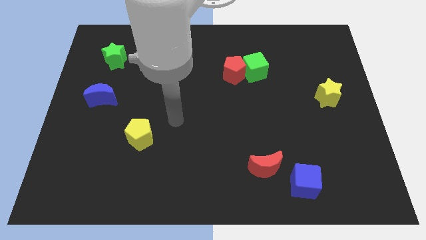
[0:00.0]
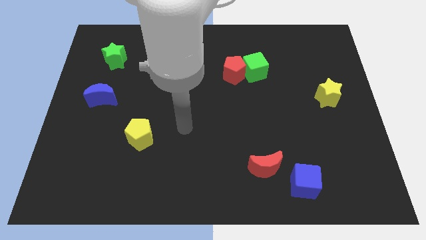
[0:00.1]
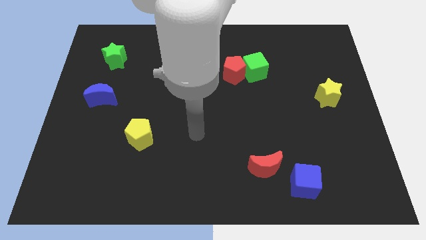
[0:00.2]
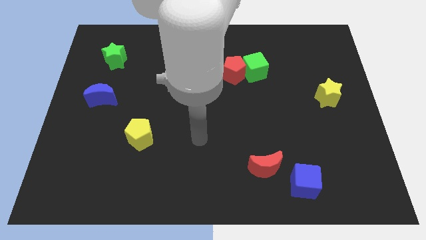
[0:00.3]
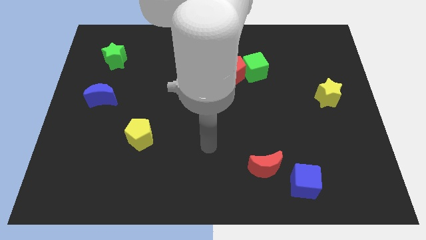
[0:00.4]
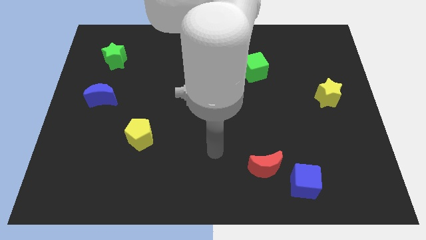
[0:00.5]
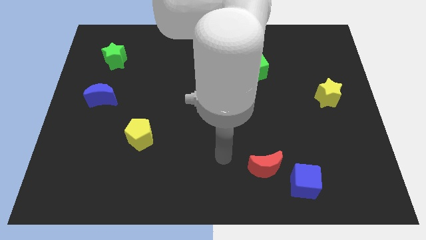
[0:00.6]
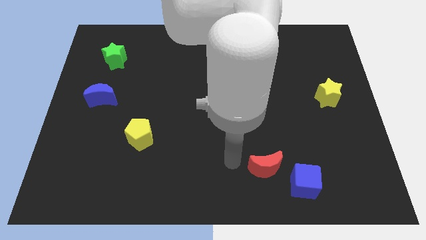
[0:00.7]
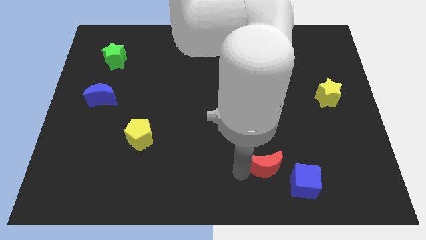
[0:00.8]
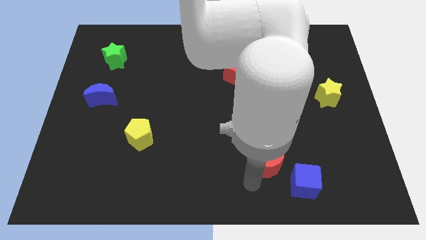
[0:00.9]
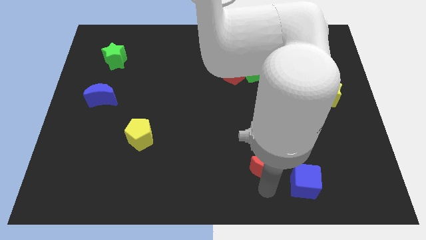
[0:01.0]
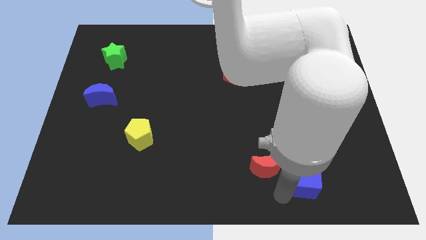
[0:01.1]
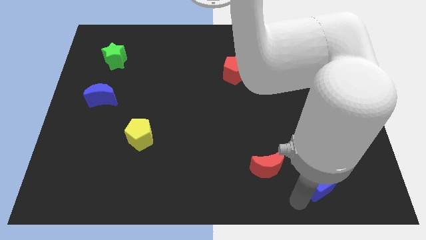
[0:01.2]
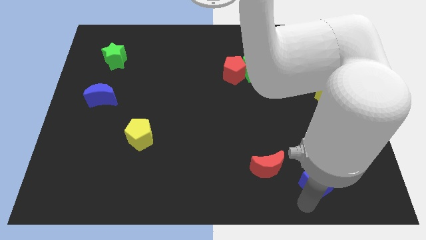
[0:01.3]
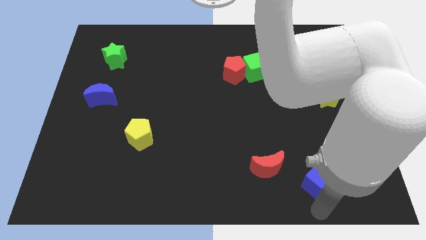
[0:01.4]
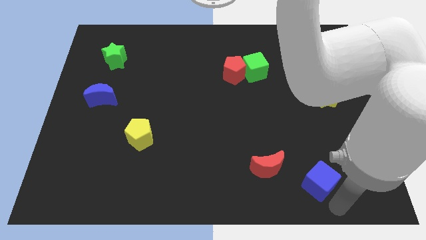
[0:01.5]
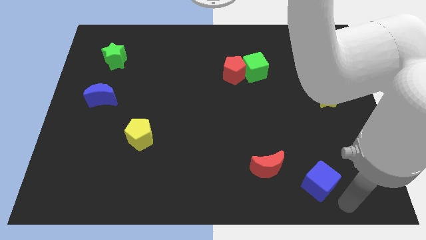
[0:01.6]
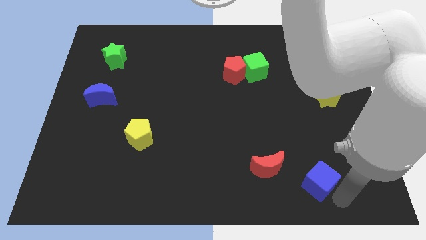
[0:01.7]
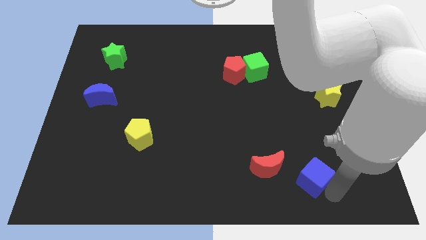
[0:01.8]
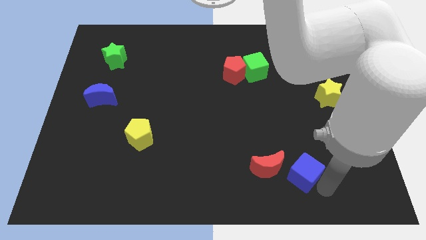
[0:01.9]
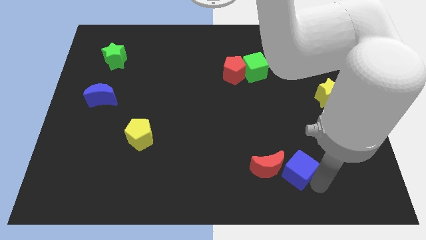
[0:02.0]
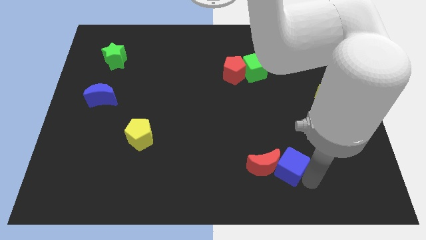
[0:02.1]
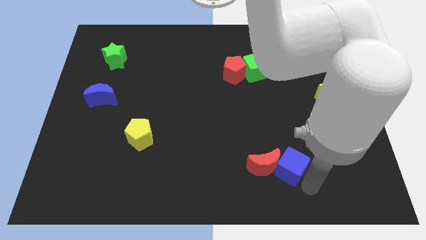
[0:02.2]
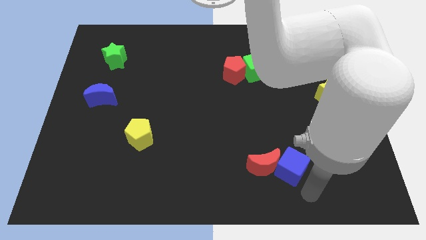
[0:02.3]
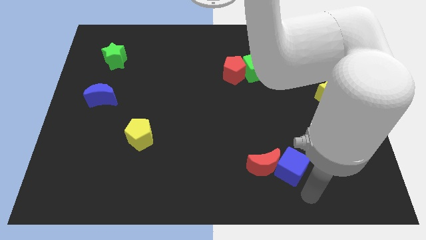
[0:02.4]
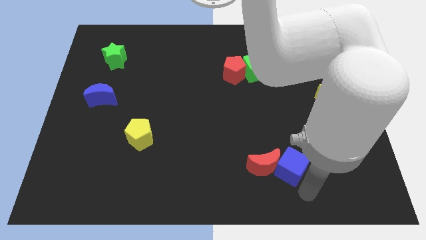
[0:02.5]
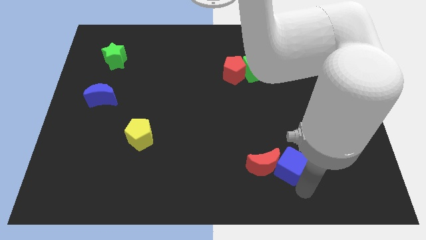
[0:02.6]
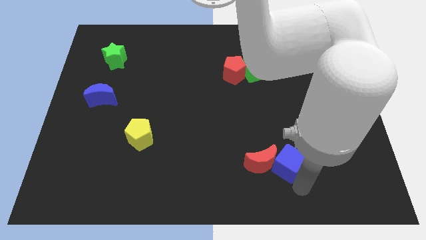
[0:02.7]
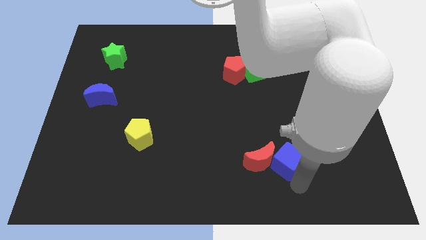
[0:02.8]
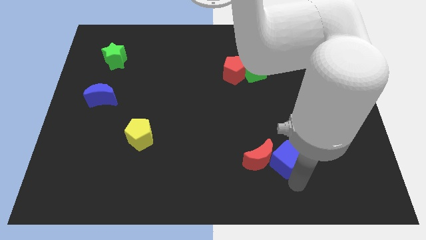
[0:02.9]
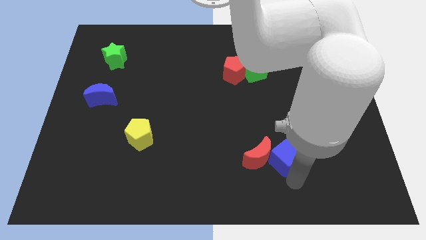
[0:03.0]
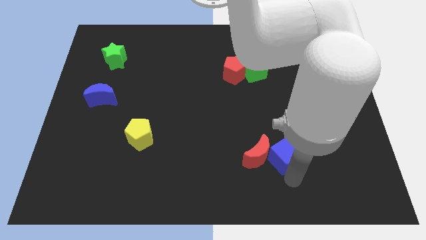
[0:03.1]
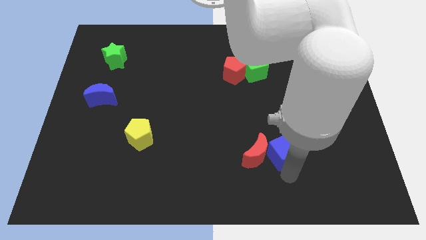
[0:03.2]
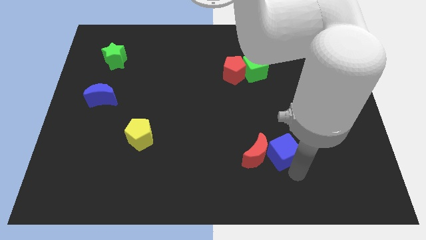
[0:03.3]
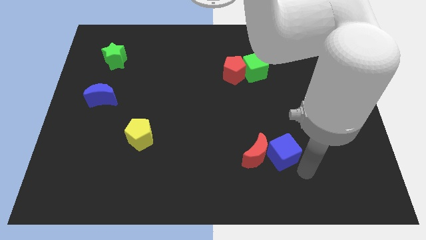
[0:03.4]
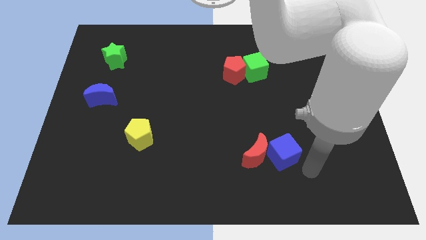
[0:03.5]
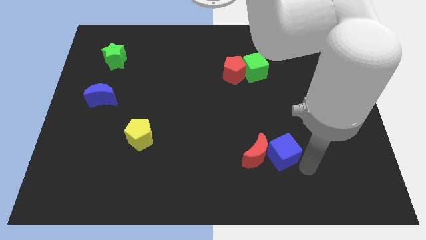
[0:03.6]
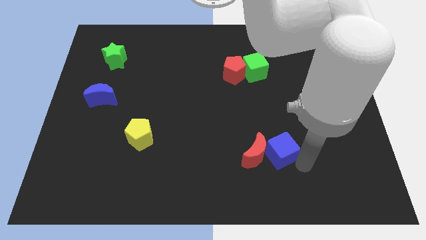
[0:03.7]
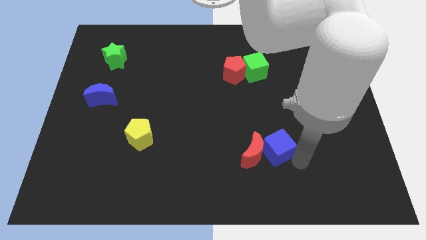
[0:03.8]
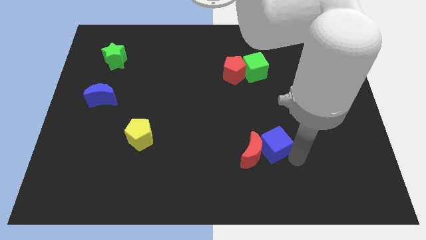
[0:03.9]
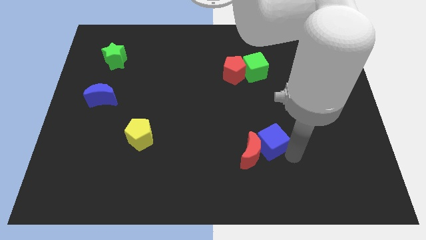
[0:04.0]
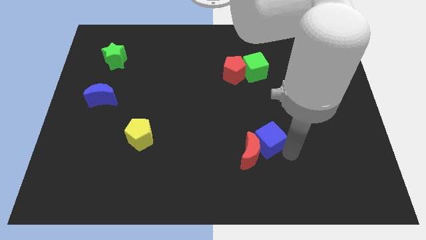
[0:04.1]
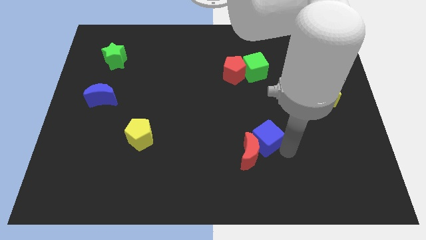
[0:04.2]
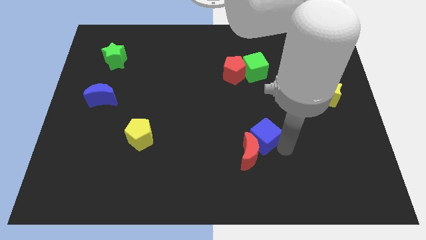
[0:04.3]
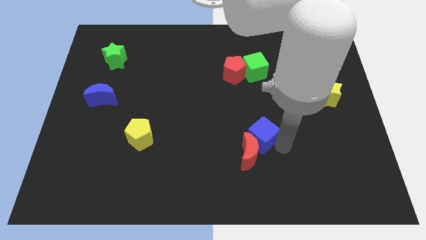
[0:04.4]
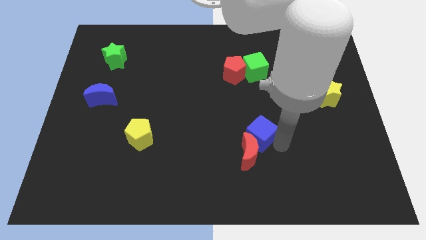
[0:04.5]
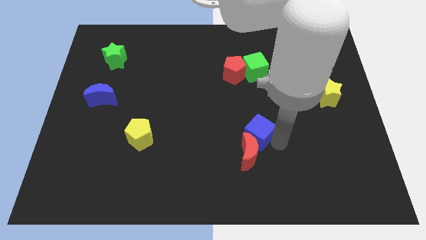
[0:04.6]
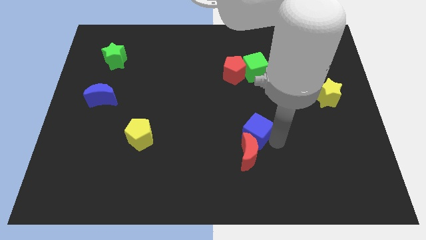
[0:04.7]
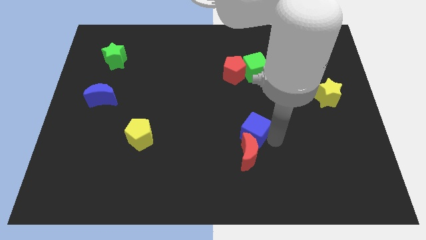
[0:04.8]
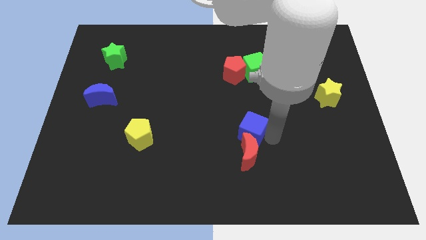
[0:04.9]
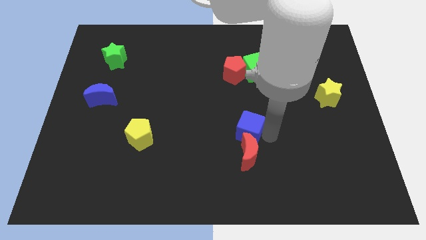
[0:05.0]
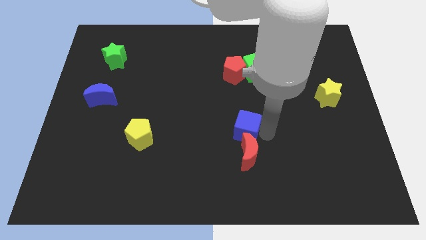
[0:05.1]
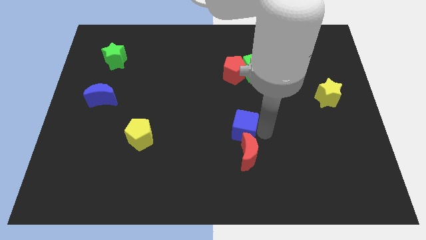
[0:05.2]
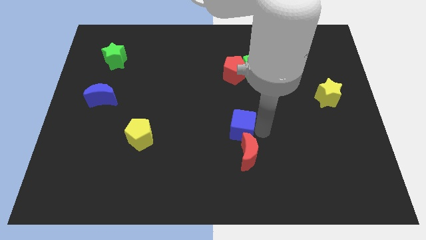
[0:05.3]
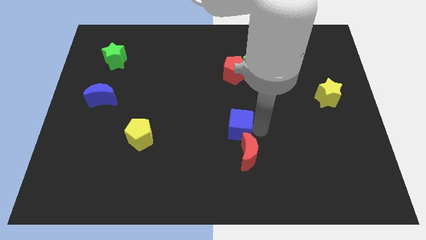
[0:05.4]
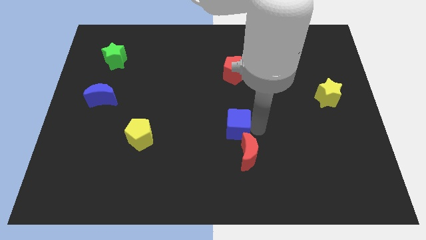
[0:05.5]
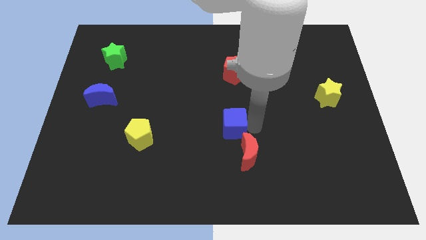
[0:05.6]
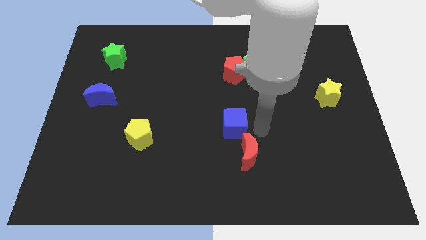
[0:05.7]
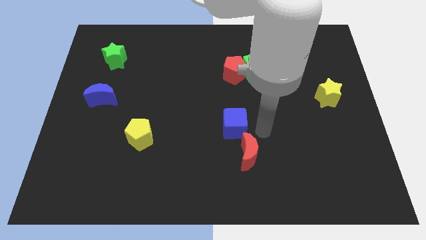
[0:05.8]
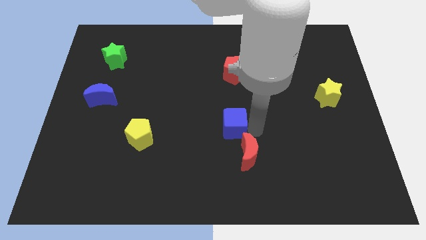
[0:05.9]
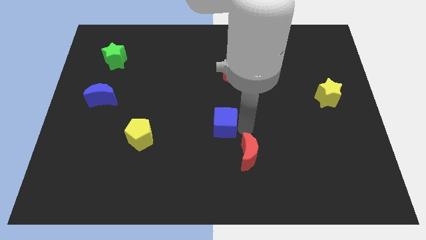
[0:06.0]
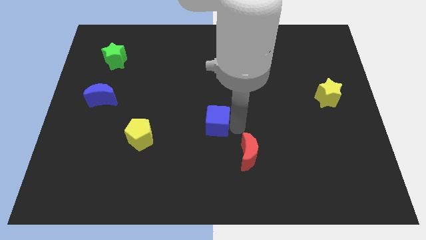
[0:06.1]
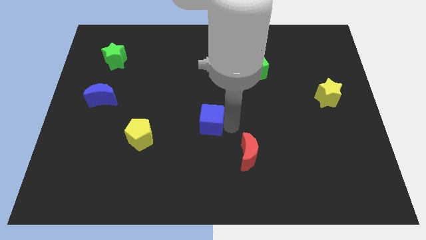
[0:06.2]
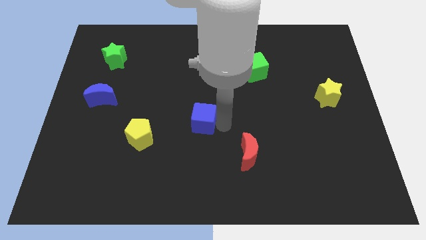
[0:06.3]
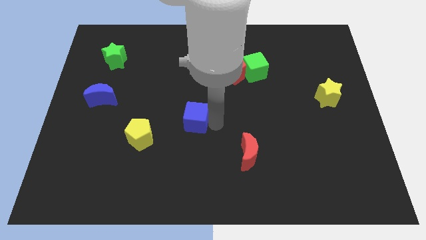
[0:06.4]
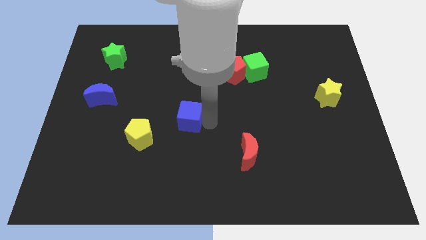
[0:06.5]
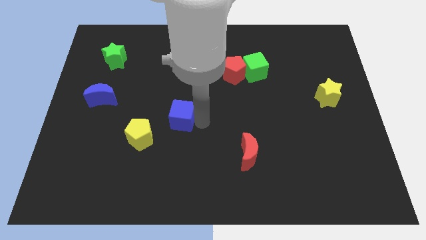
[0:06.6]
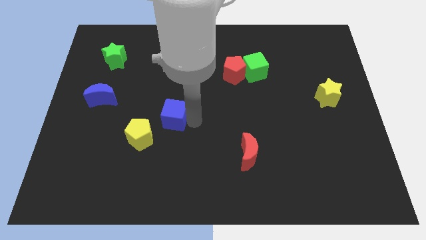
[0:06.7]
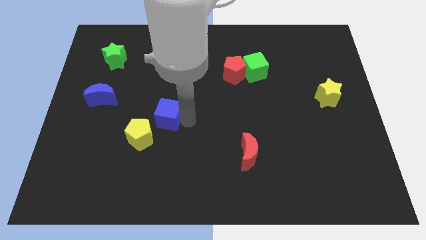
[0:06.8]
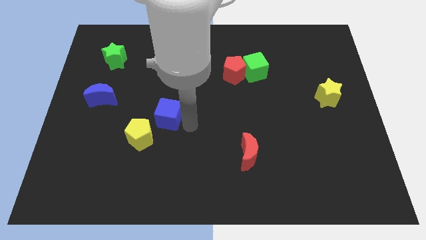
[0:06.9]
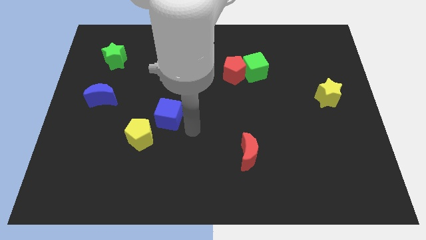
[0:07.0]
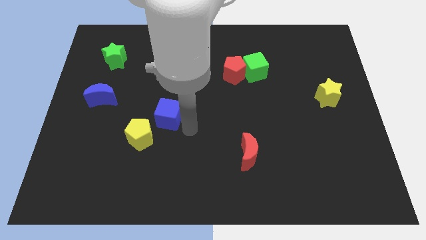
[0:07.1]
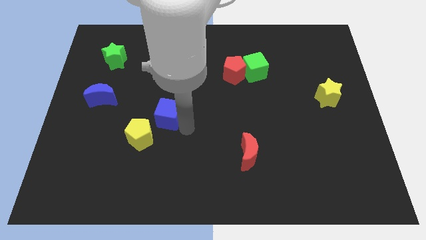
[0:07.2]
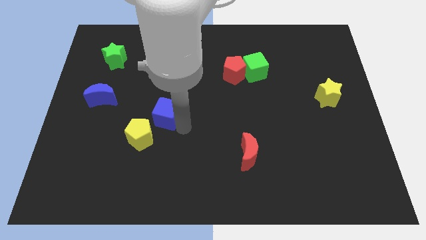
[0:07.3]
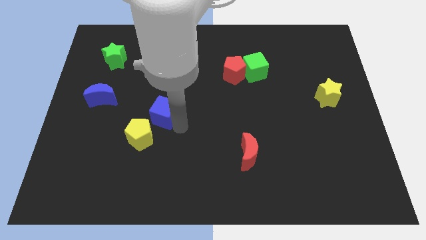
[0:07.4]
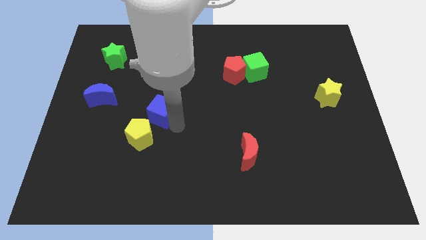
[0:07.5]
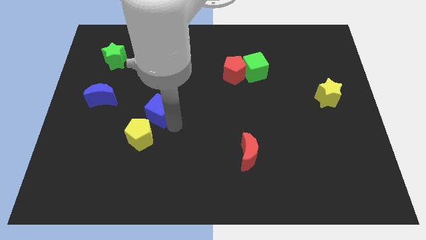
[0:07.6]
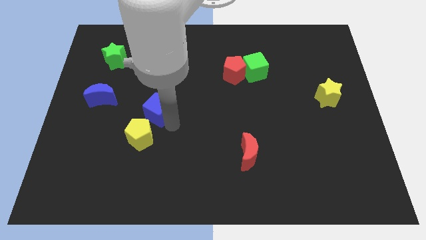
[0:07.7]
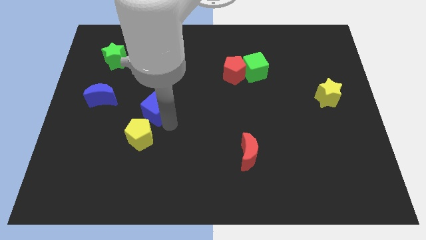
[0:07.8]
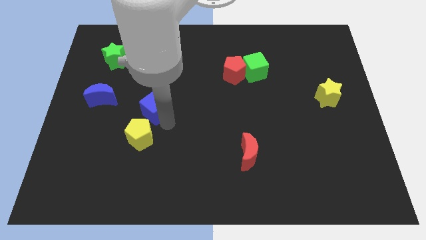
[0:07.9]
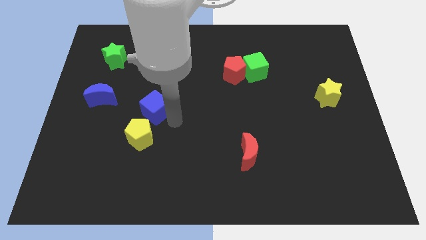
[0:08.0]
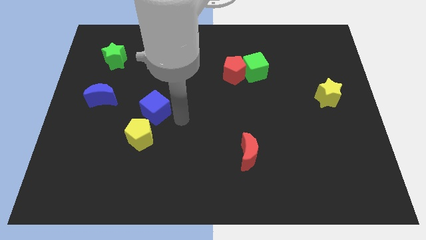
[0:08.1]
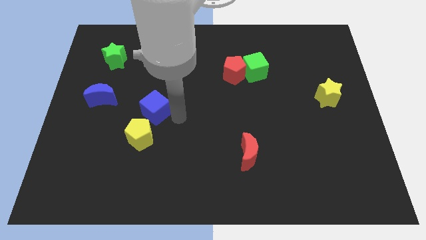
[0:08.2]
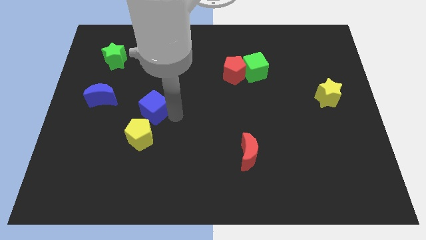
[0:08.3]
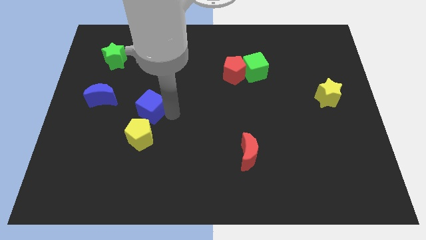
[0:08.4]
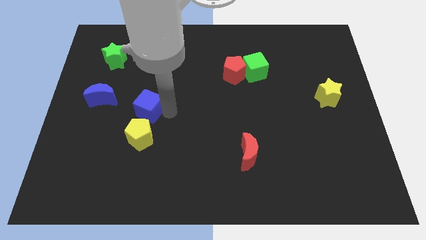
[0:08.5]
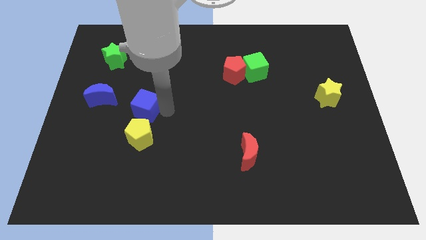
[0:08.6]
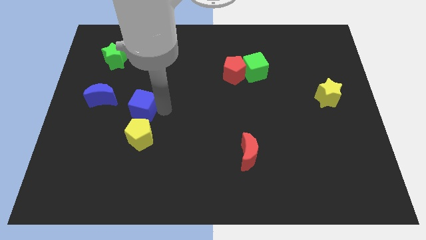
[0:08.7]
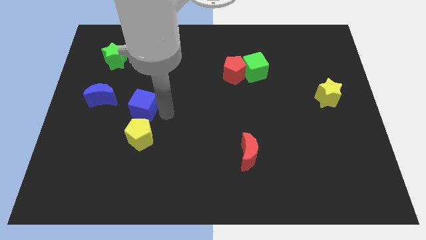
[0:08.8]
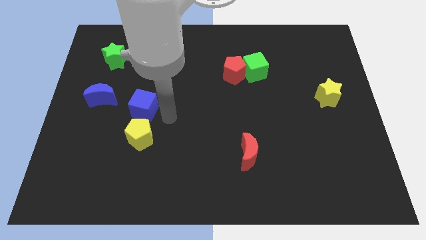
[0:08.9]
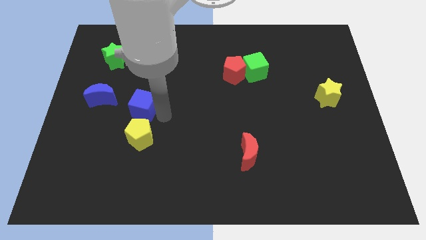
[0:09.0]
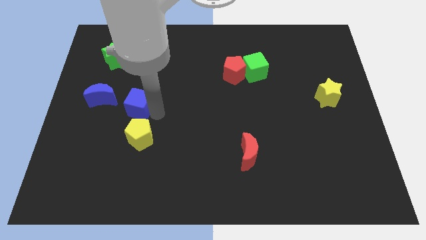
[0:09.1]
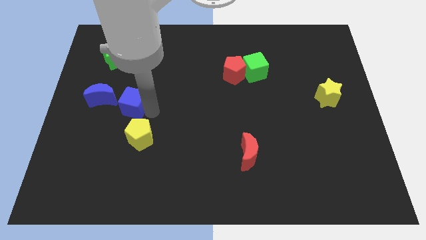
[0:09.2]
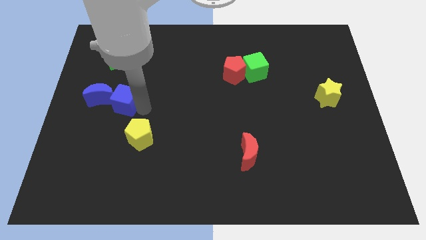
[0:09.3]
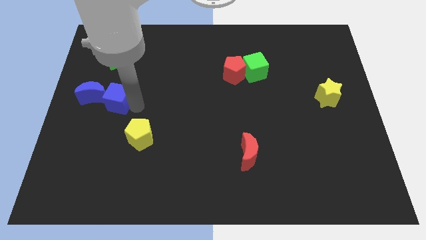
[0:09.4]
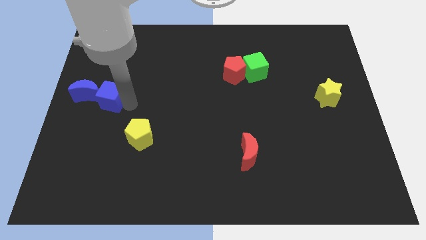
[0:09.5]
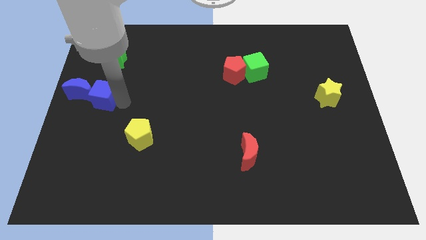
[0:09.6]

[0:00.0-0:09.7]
push the blue cube towards the blue moon
